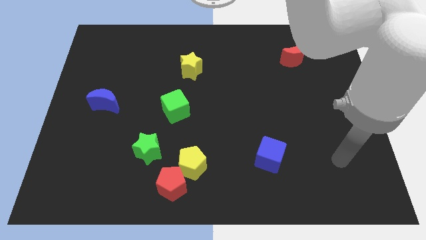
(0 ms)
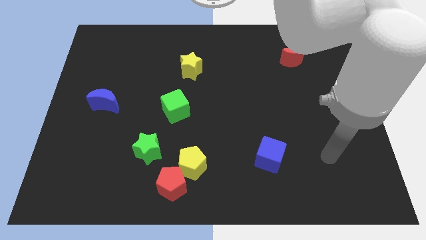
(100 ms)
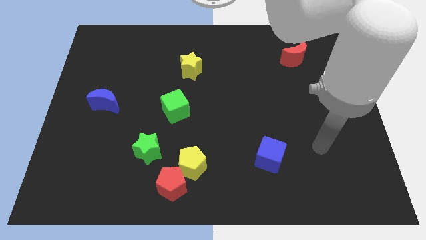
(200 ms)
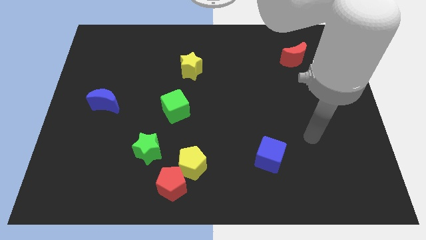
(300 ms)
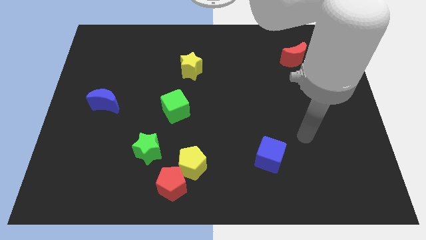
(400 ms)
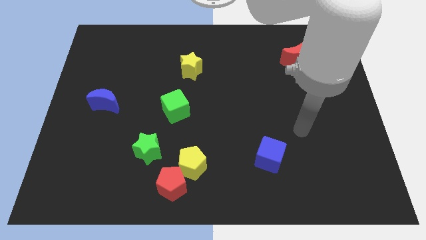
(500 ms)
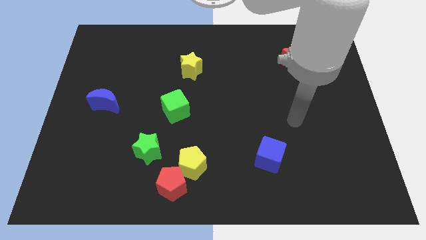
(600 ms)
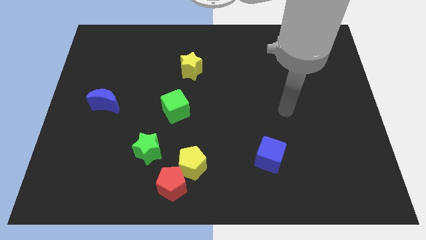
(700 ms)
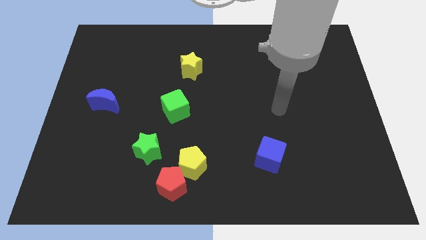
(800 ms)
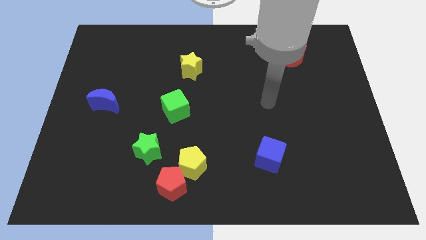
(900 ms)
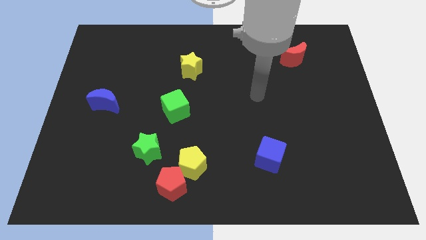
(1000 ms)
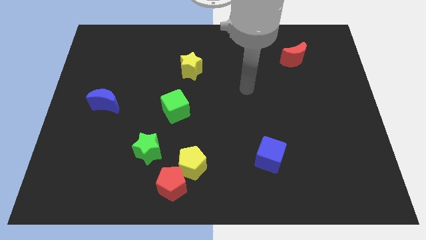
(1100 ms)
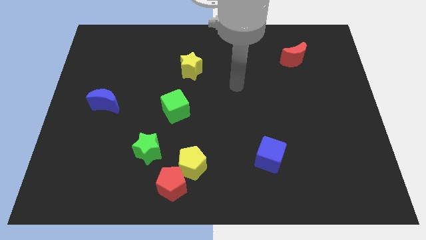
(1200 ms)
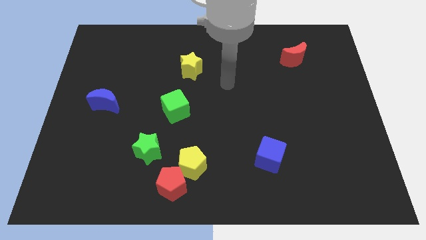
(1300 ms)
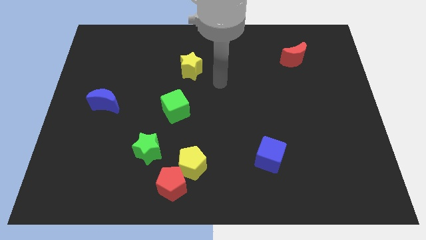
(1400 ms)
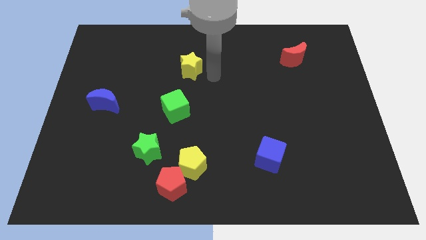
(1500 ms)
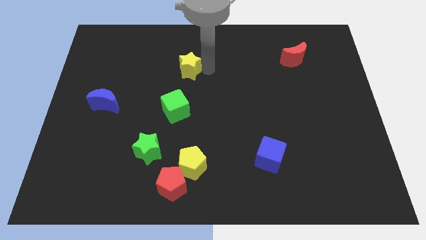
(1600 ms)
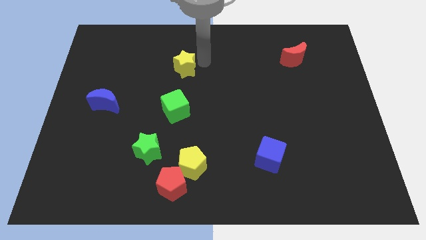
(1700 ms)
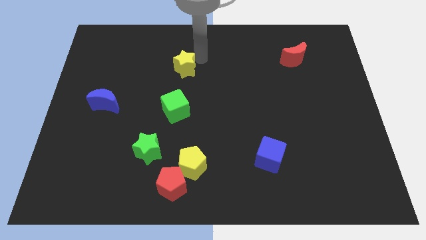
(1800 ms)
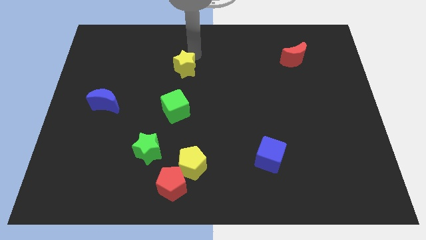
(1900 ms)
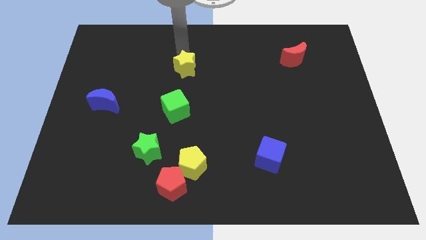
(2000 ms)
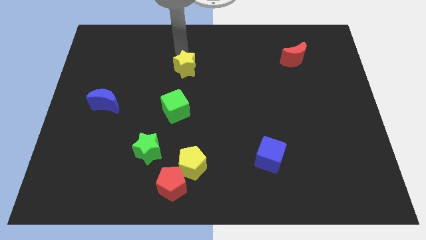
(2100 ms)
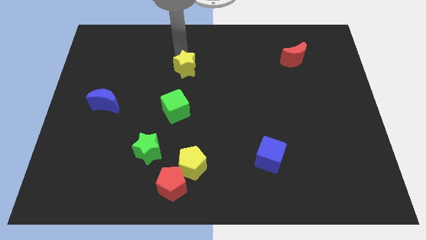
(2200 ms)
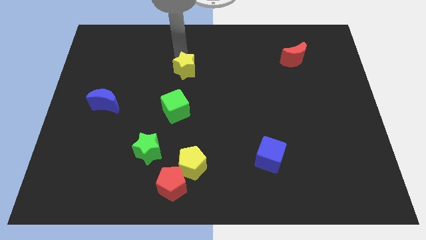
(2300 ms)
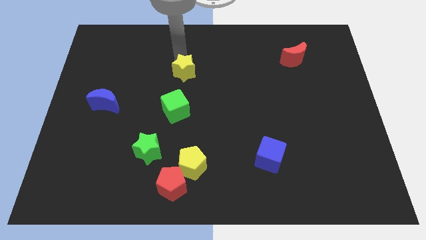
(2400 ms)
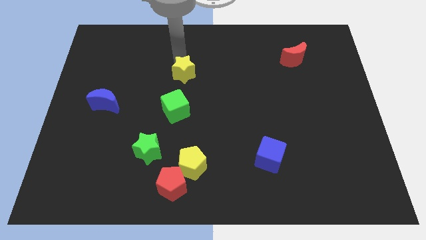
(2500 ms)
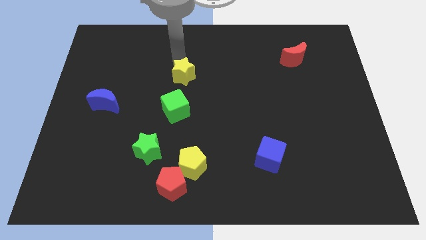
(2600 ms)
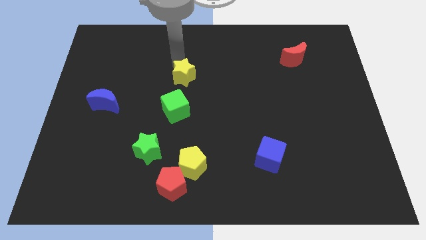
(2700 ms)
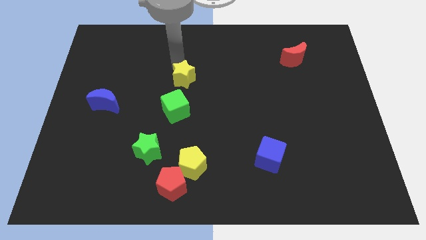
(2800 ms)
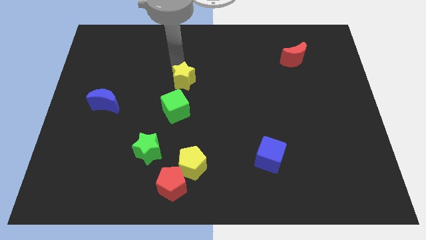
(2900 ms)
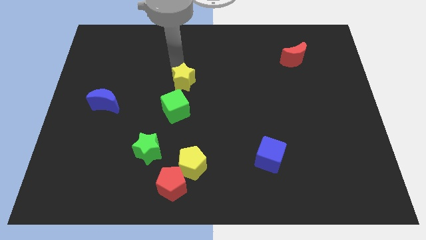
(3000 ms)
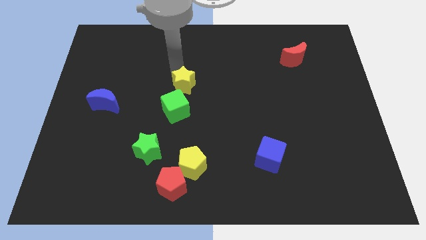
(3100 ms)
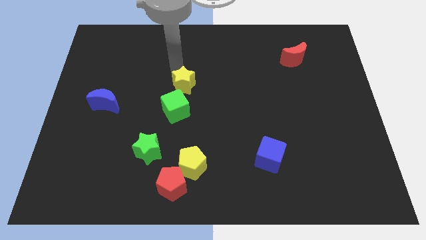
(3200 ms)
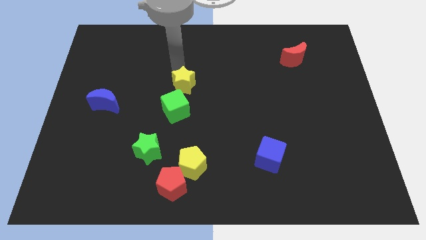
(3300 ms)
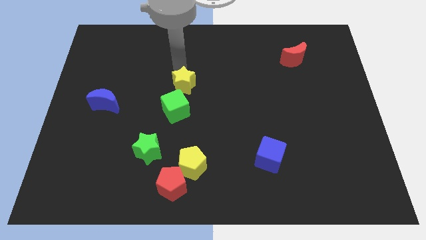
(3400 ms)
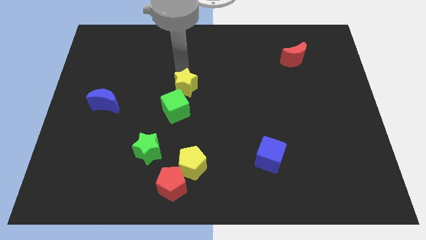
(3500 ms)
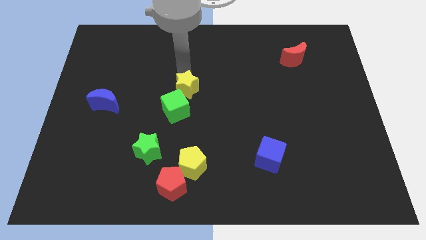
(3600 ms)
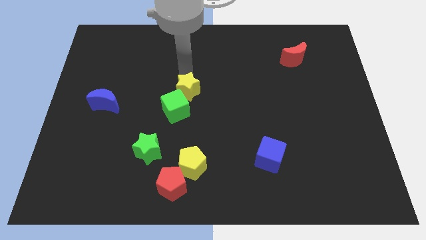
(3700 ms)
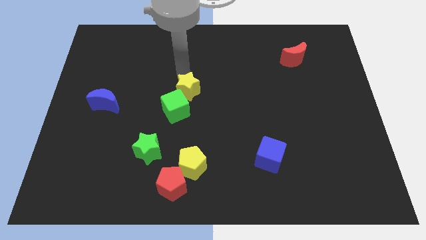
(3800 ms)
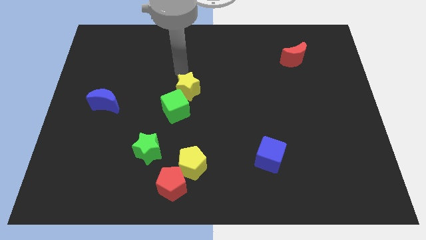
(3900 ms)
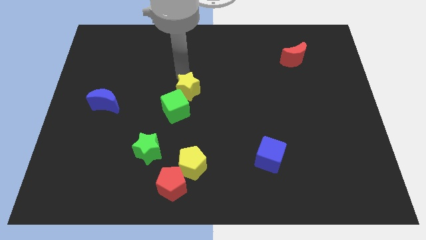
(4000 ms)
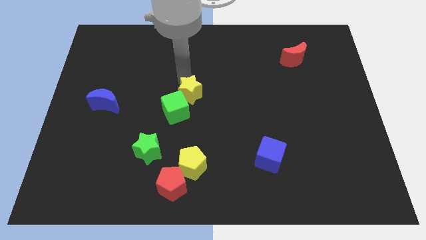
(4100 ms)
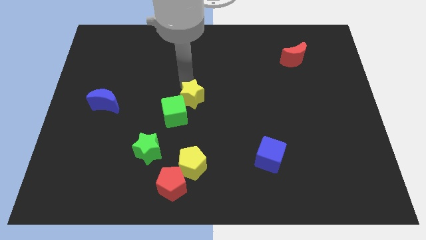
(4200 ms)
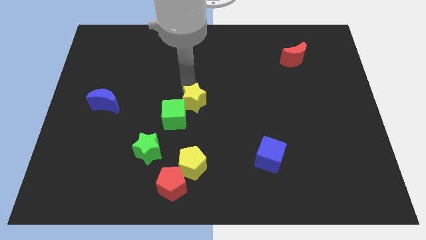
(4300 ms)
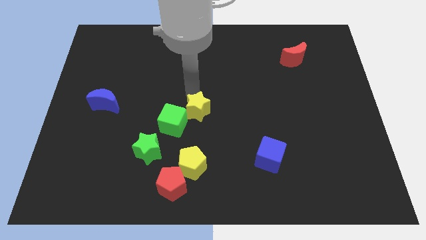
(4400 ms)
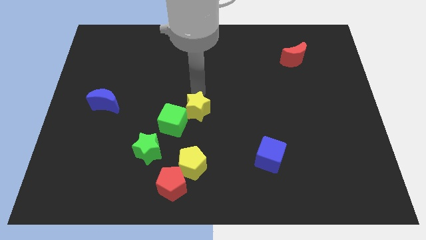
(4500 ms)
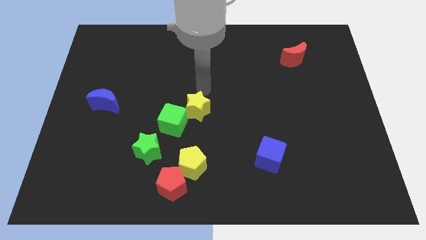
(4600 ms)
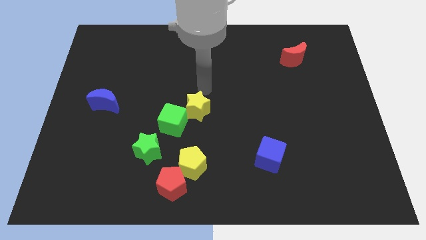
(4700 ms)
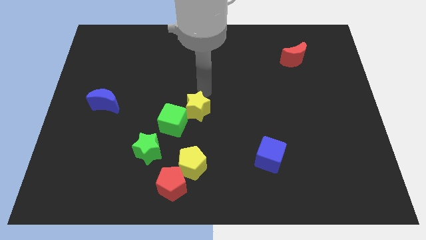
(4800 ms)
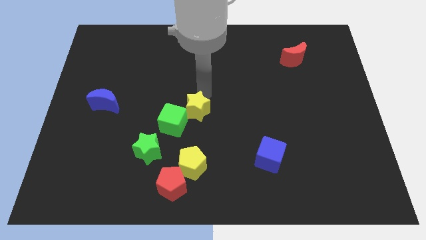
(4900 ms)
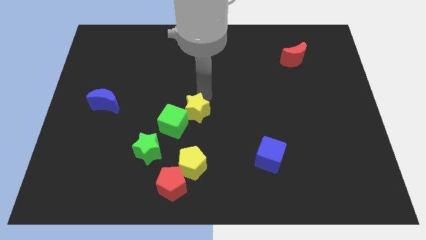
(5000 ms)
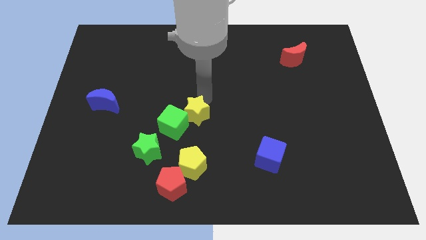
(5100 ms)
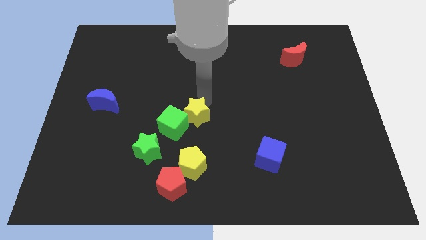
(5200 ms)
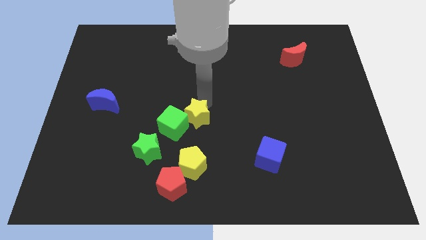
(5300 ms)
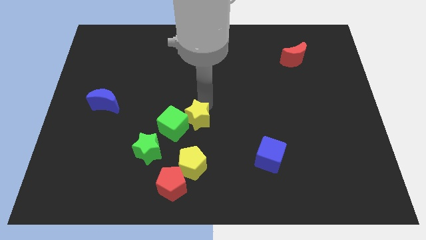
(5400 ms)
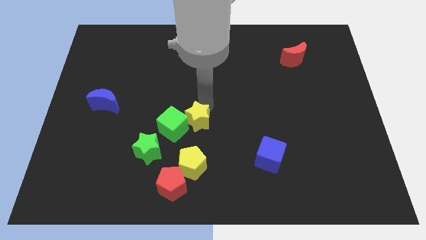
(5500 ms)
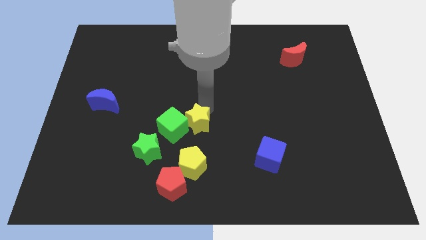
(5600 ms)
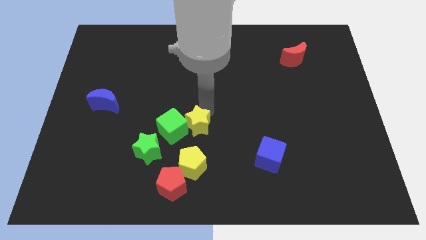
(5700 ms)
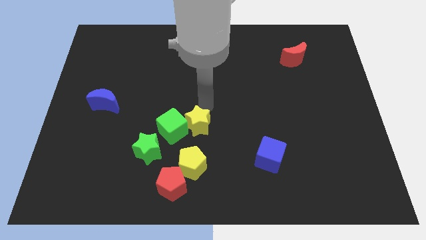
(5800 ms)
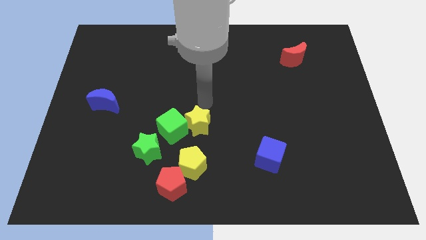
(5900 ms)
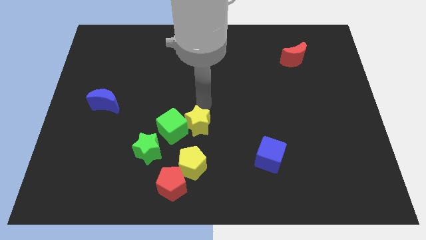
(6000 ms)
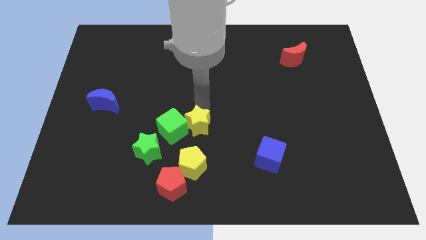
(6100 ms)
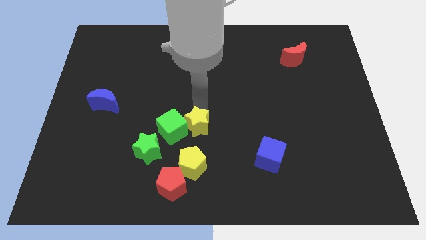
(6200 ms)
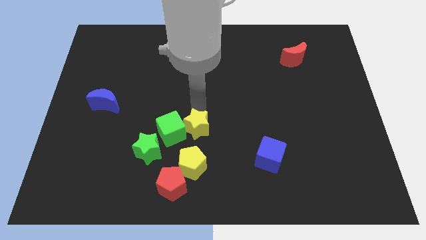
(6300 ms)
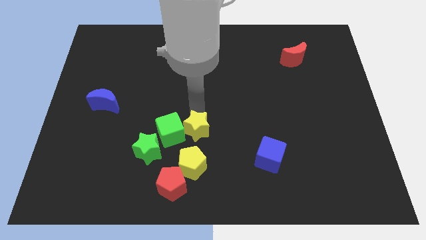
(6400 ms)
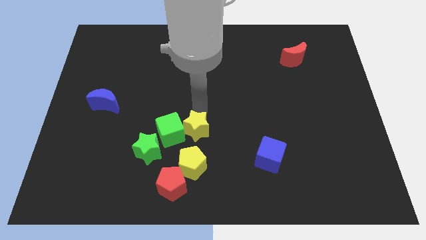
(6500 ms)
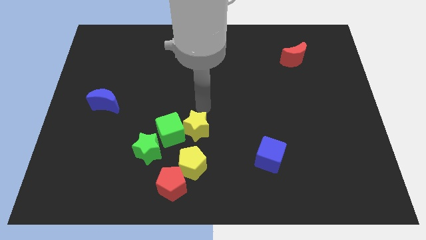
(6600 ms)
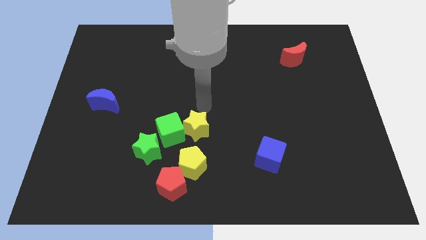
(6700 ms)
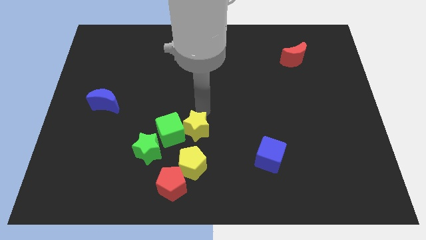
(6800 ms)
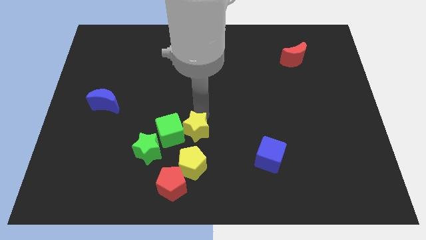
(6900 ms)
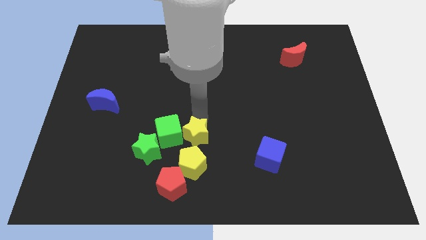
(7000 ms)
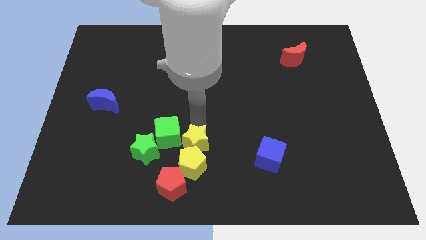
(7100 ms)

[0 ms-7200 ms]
slide the yellow star to the yellow pentagon
